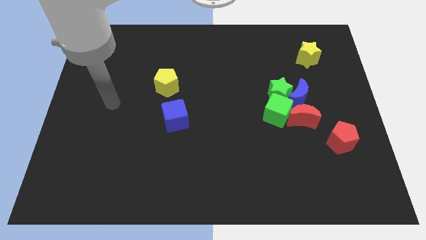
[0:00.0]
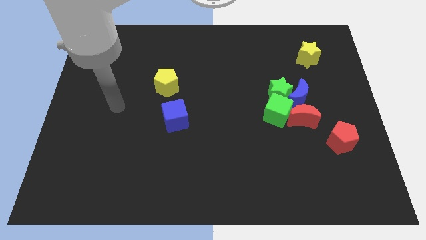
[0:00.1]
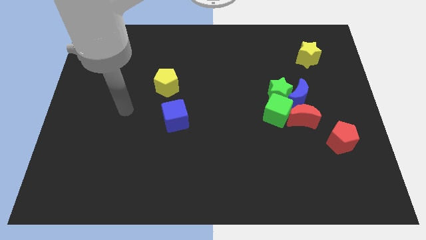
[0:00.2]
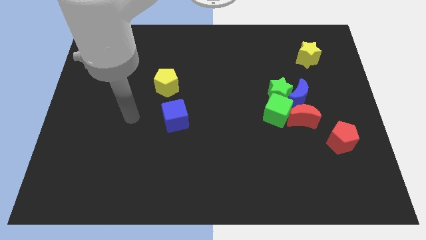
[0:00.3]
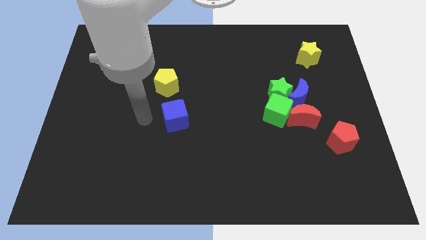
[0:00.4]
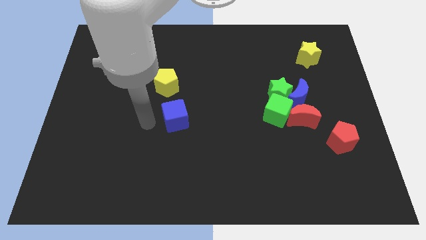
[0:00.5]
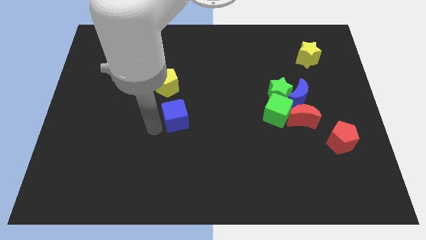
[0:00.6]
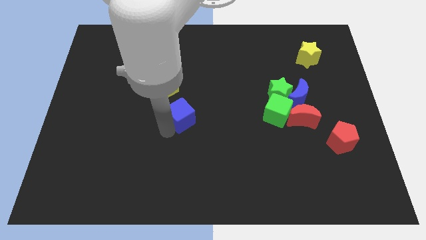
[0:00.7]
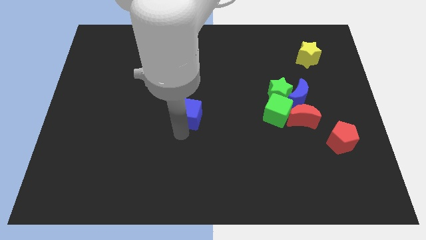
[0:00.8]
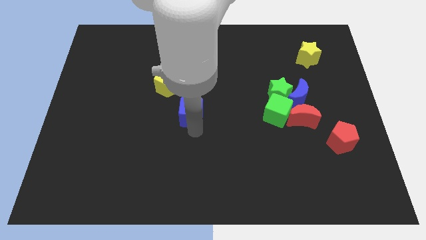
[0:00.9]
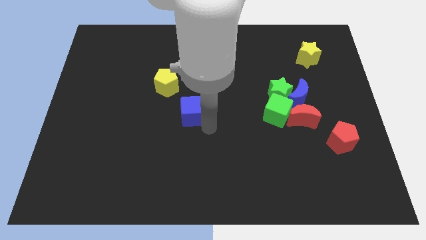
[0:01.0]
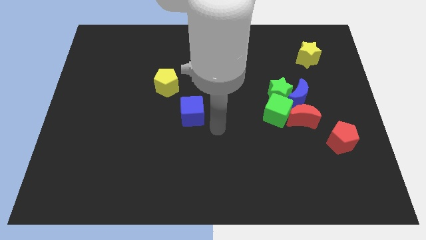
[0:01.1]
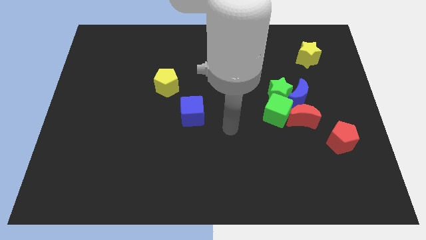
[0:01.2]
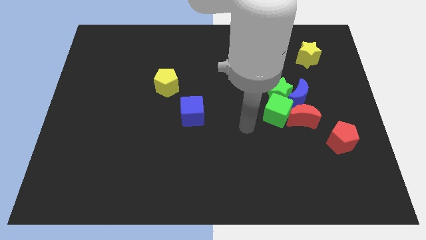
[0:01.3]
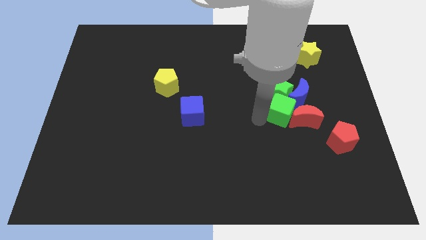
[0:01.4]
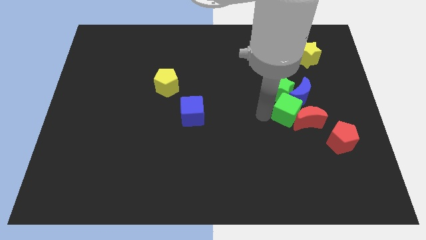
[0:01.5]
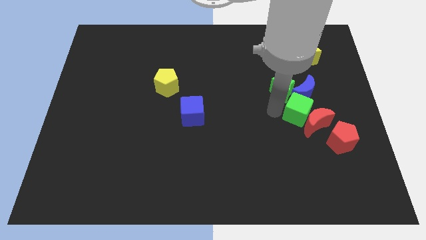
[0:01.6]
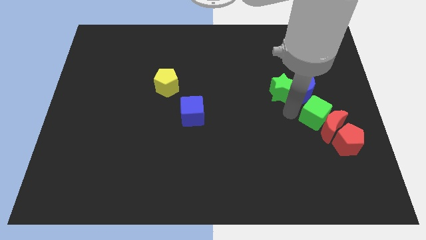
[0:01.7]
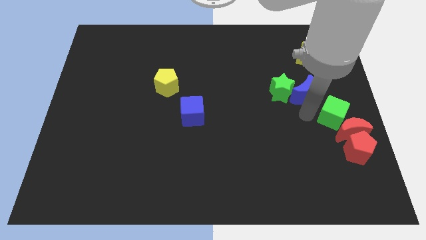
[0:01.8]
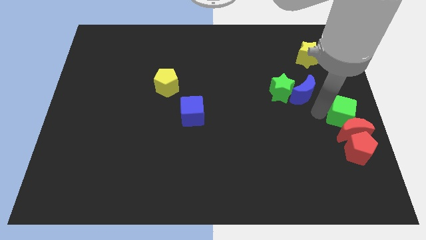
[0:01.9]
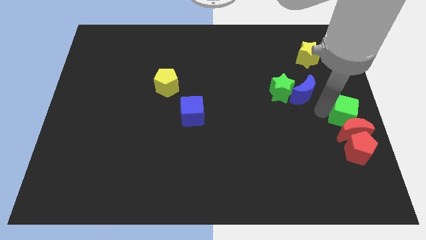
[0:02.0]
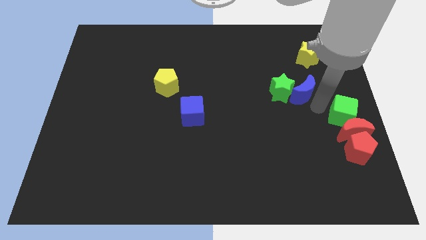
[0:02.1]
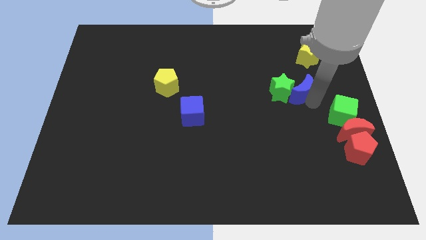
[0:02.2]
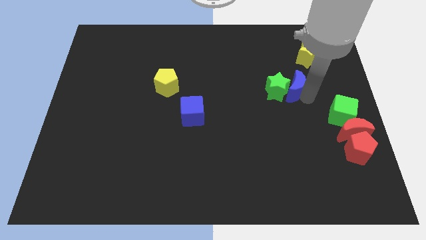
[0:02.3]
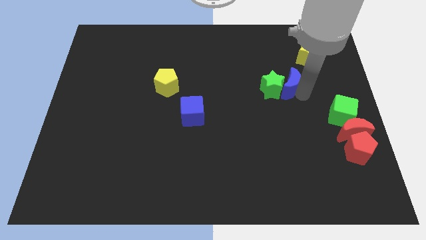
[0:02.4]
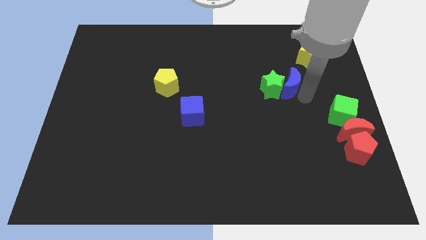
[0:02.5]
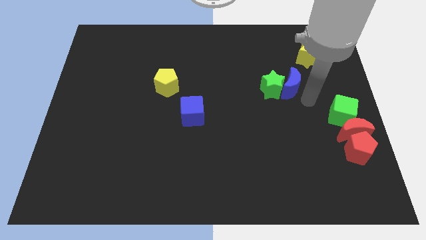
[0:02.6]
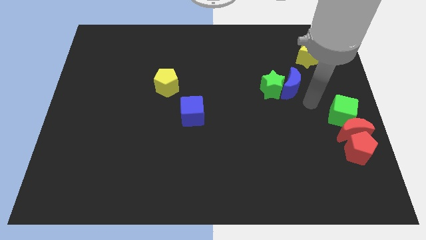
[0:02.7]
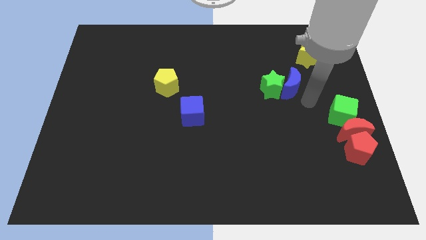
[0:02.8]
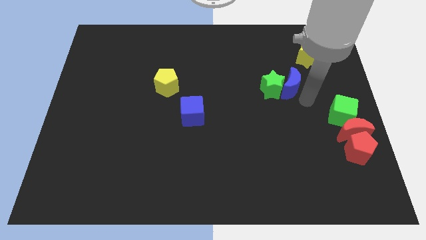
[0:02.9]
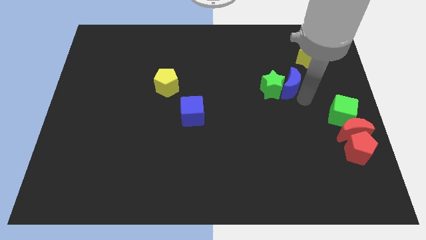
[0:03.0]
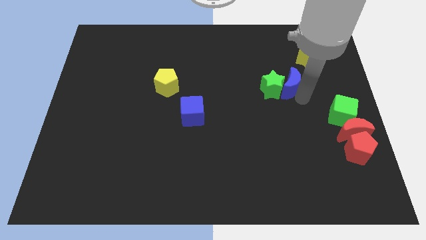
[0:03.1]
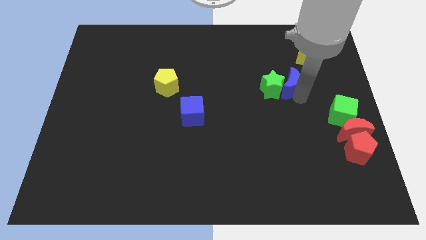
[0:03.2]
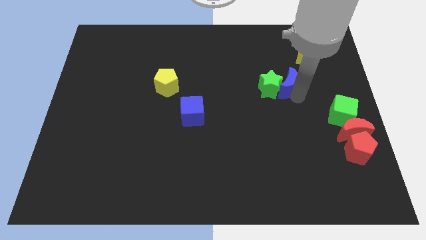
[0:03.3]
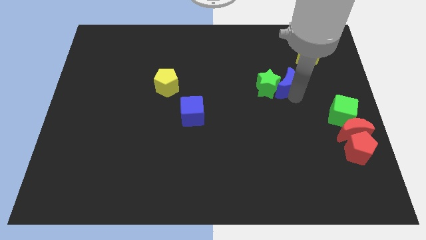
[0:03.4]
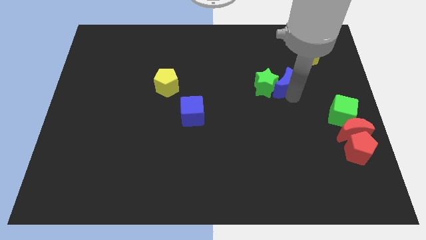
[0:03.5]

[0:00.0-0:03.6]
separate the blue moon from the clump

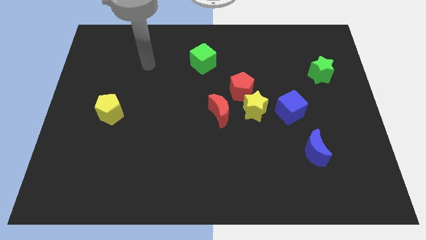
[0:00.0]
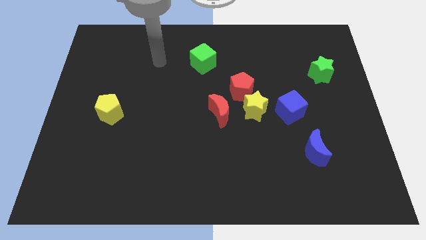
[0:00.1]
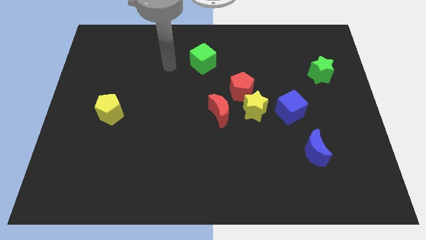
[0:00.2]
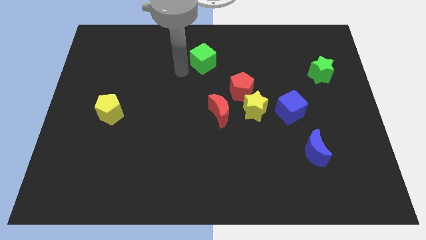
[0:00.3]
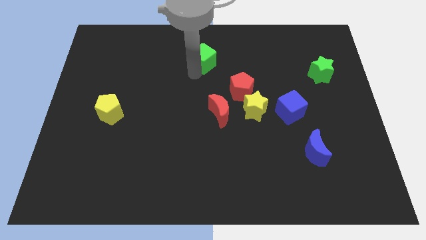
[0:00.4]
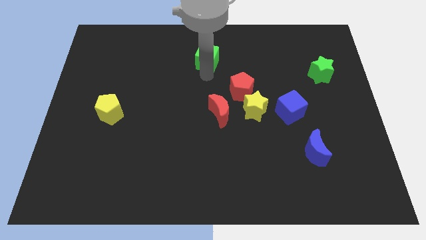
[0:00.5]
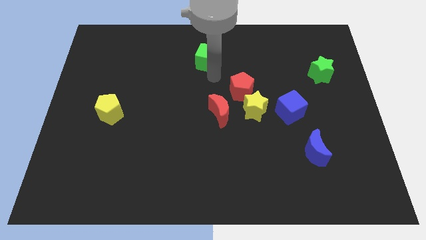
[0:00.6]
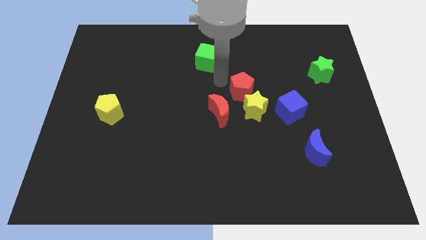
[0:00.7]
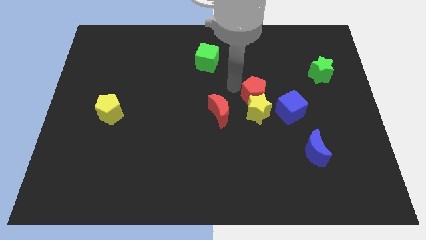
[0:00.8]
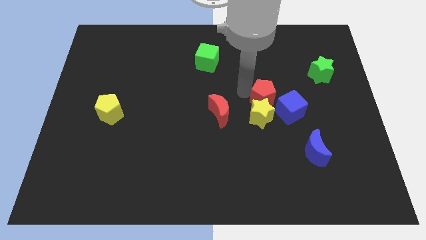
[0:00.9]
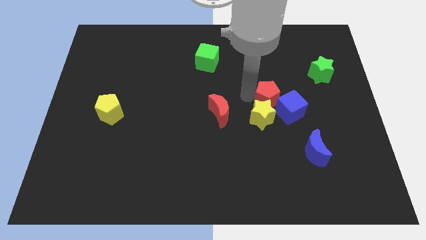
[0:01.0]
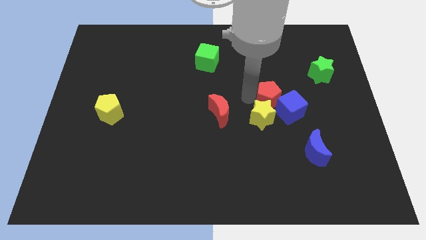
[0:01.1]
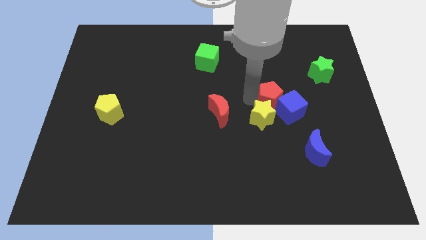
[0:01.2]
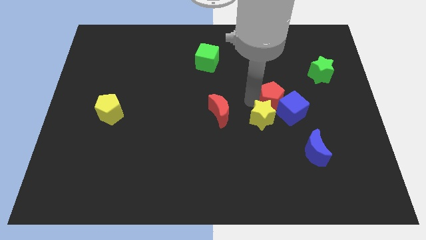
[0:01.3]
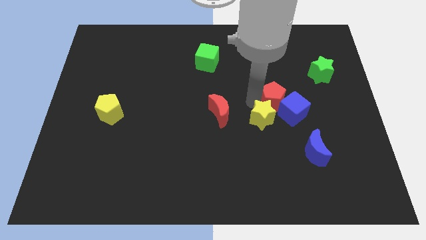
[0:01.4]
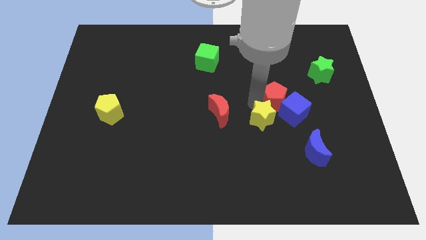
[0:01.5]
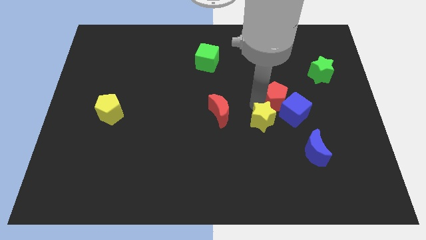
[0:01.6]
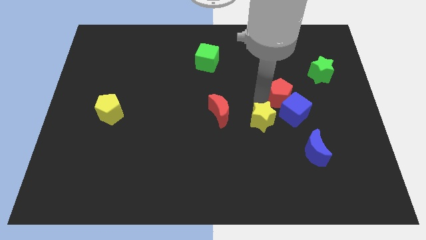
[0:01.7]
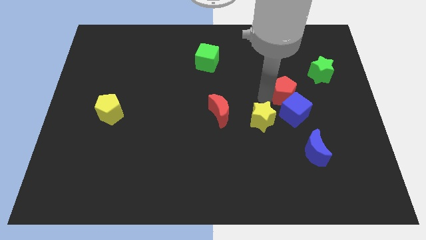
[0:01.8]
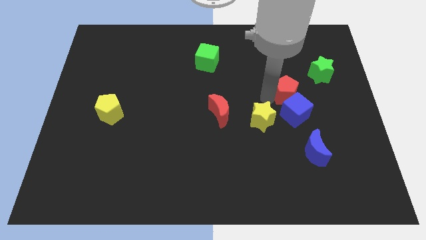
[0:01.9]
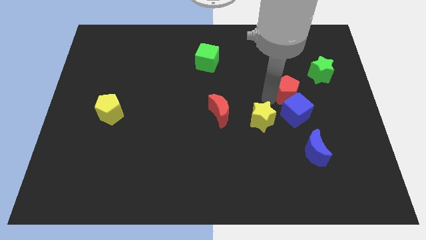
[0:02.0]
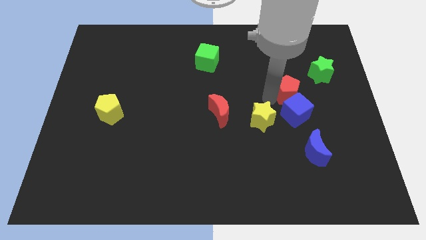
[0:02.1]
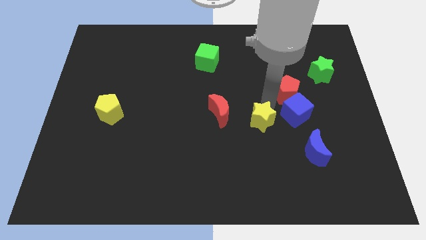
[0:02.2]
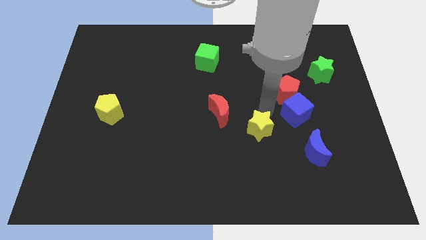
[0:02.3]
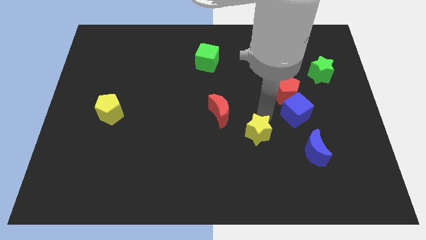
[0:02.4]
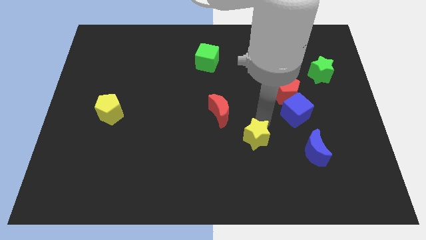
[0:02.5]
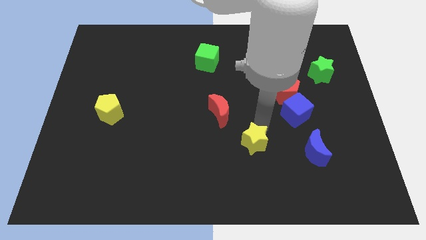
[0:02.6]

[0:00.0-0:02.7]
separate the yellow star from the red pentagon, blue cube, and red moon

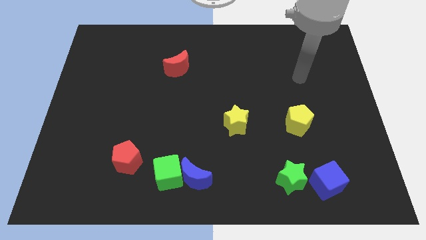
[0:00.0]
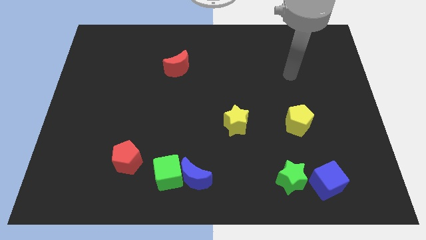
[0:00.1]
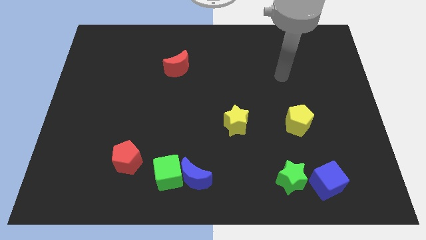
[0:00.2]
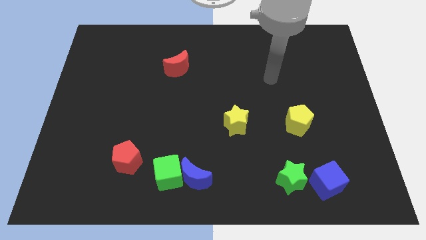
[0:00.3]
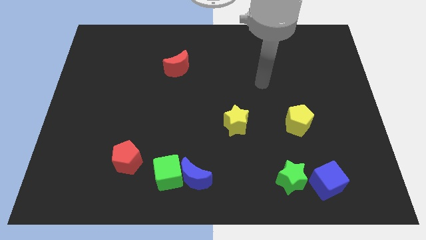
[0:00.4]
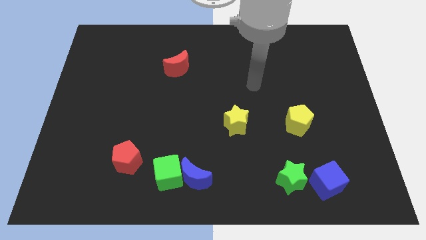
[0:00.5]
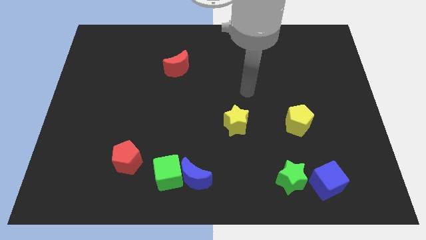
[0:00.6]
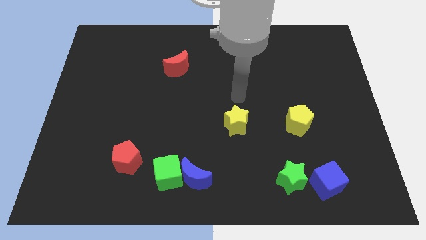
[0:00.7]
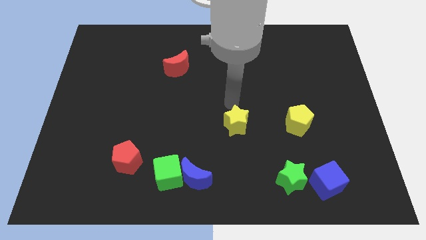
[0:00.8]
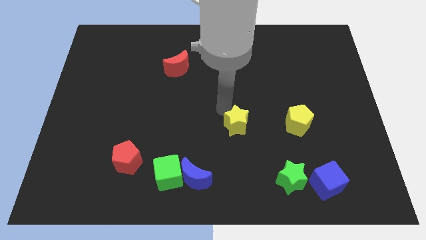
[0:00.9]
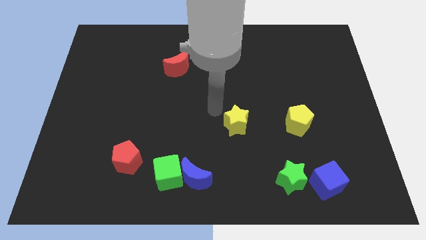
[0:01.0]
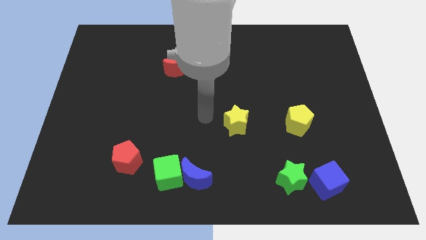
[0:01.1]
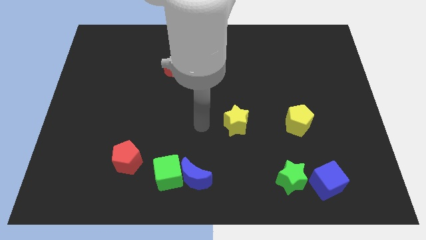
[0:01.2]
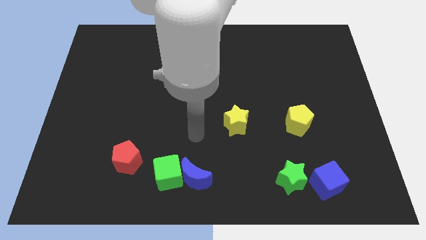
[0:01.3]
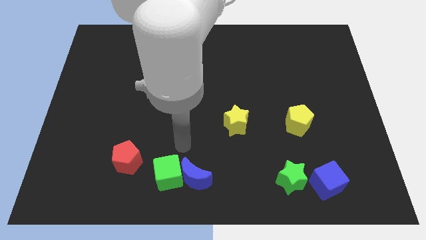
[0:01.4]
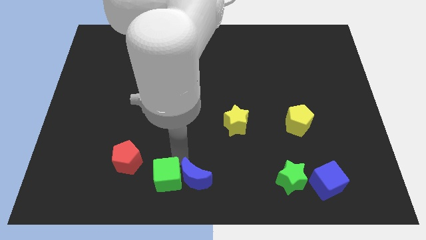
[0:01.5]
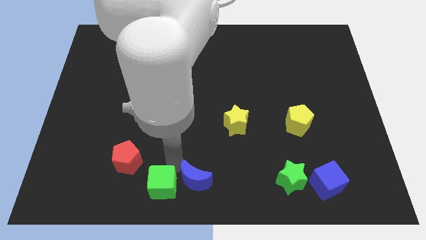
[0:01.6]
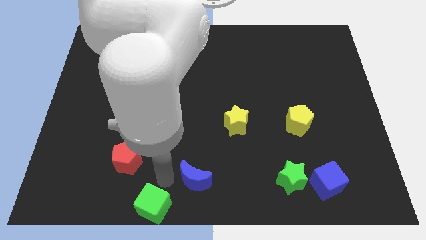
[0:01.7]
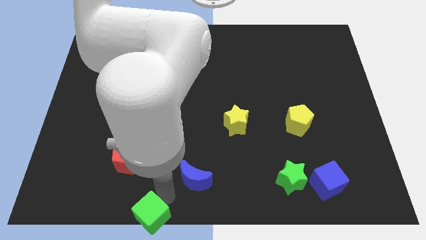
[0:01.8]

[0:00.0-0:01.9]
move the blue moon away from the green cube

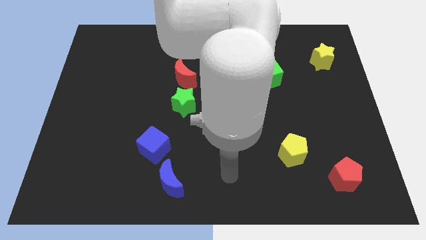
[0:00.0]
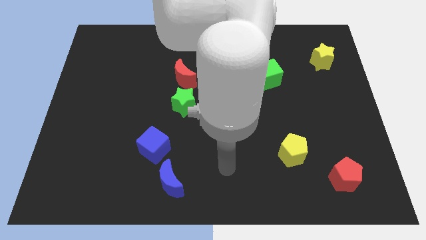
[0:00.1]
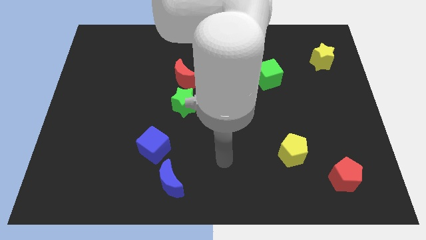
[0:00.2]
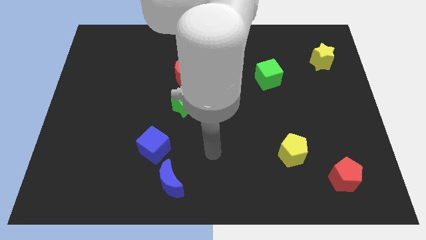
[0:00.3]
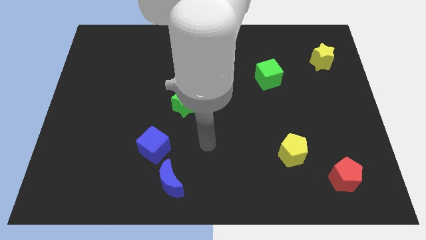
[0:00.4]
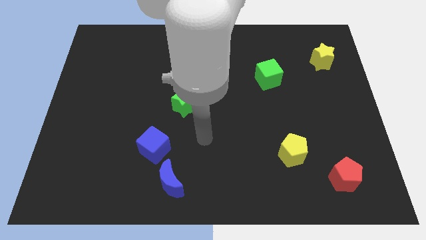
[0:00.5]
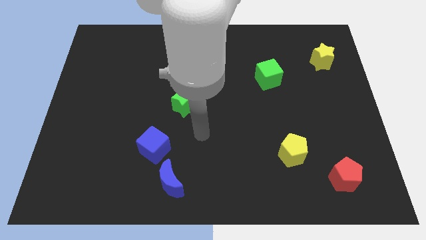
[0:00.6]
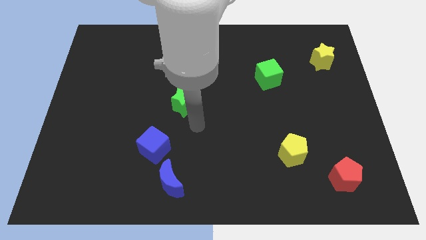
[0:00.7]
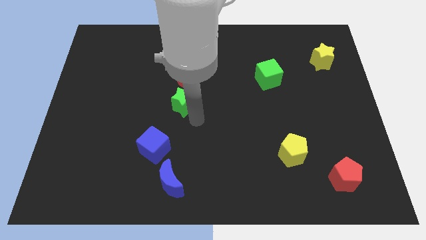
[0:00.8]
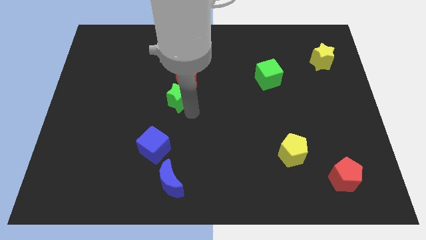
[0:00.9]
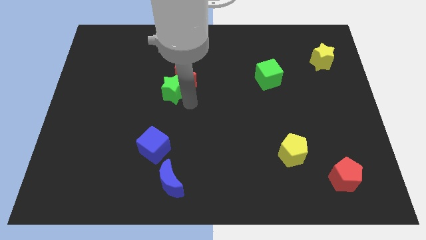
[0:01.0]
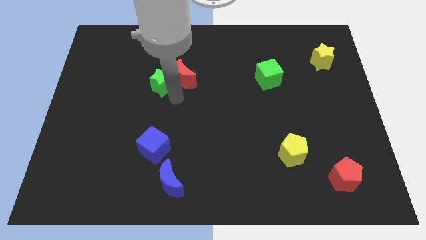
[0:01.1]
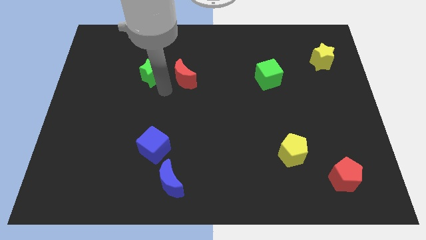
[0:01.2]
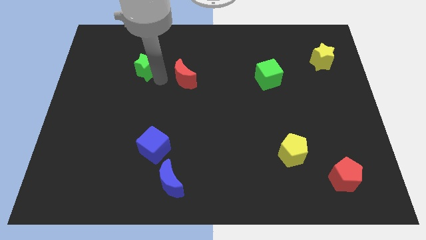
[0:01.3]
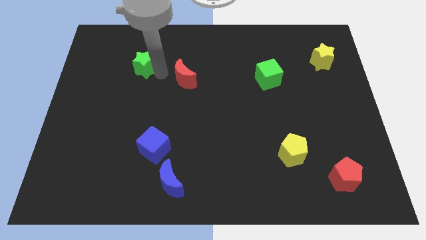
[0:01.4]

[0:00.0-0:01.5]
move the red moon away from the green star
